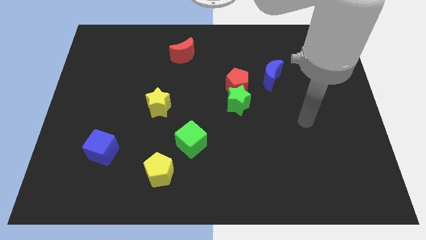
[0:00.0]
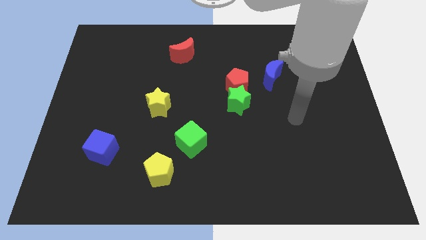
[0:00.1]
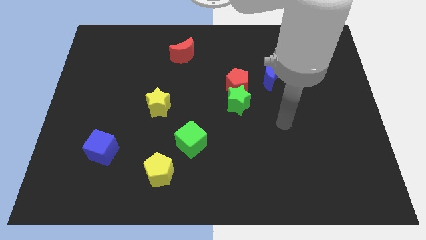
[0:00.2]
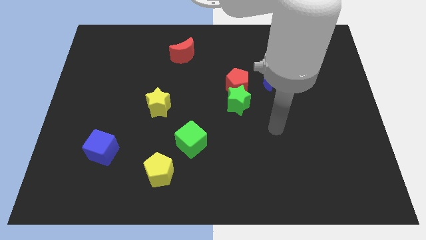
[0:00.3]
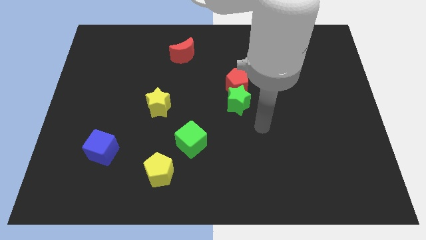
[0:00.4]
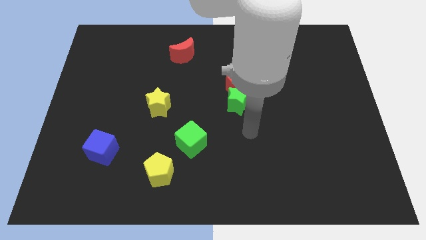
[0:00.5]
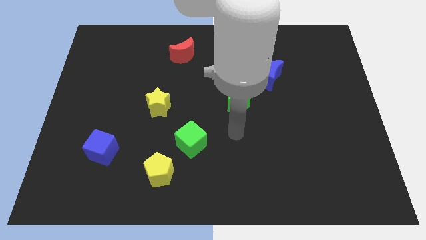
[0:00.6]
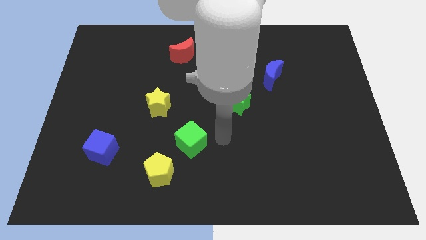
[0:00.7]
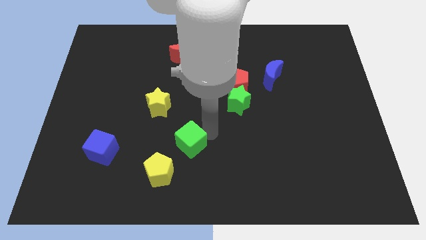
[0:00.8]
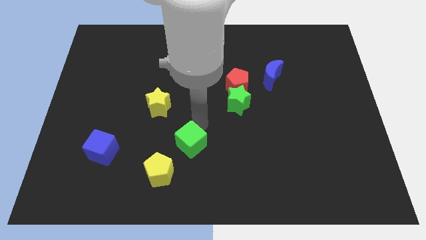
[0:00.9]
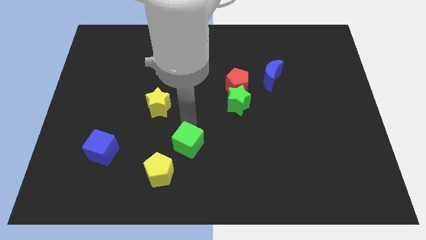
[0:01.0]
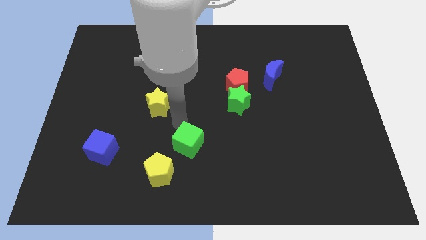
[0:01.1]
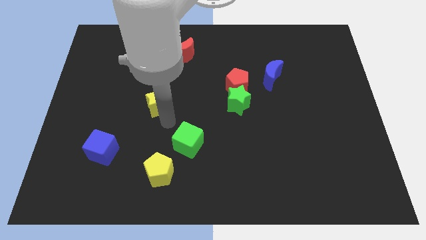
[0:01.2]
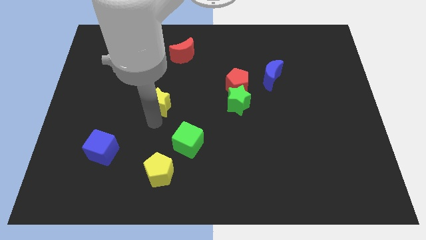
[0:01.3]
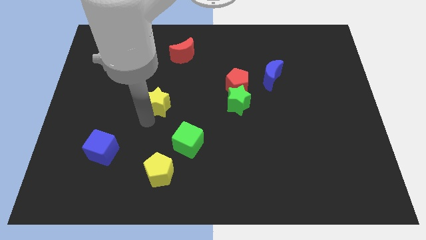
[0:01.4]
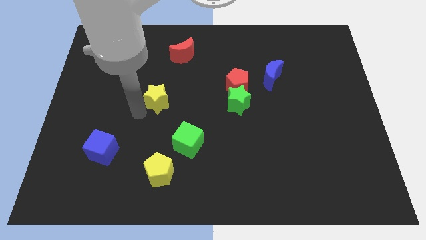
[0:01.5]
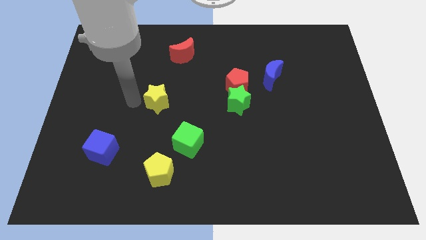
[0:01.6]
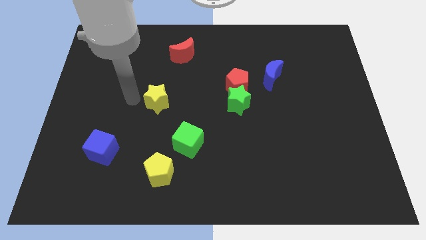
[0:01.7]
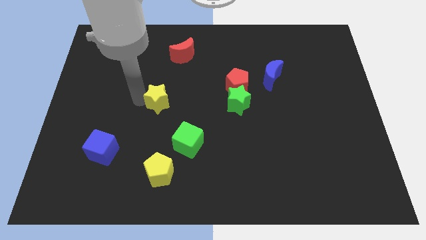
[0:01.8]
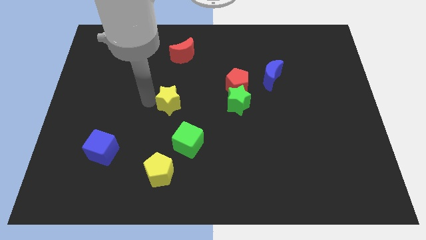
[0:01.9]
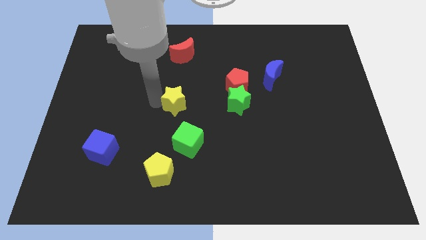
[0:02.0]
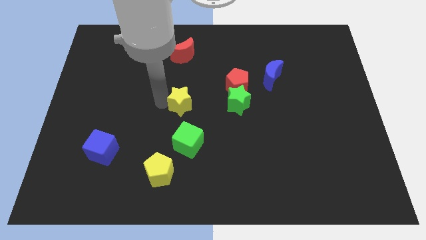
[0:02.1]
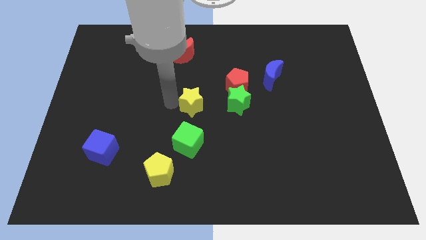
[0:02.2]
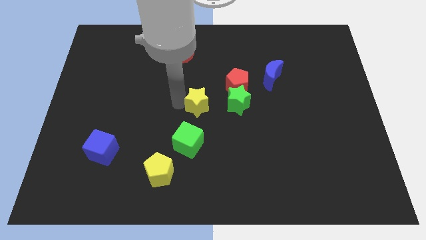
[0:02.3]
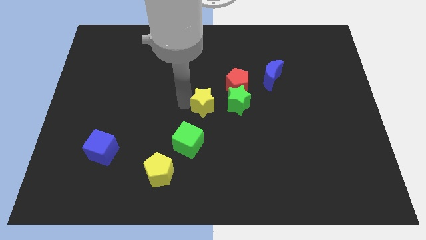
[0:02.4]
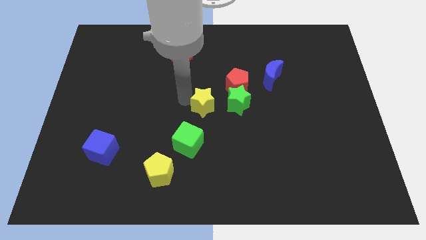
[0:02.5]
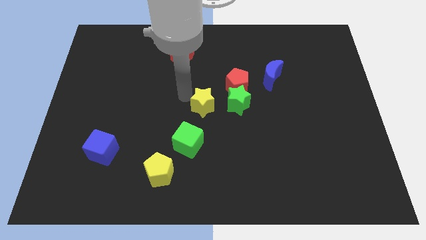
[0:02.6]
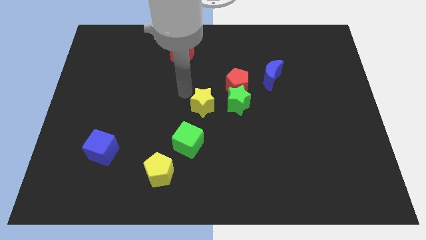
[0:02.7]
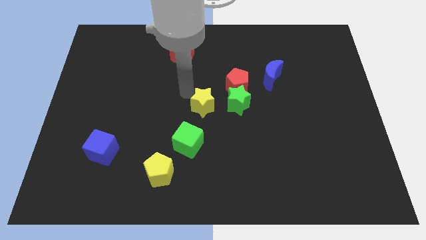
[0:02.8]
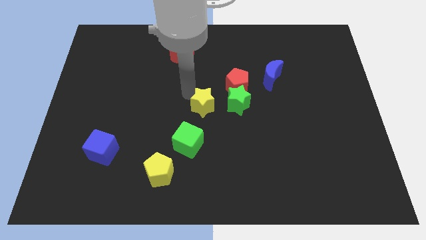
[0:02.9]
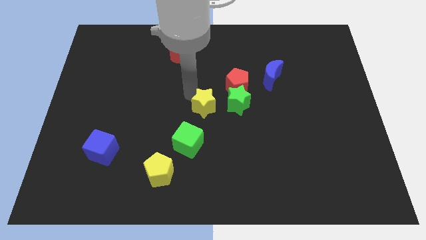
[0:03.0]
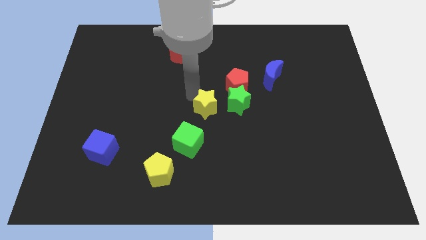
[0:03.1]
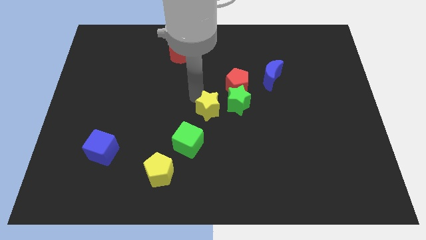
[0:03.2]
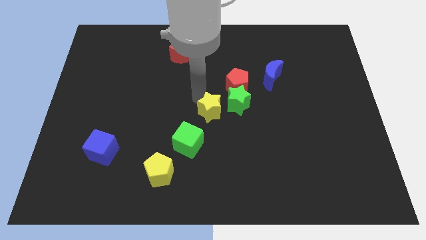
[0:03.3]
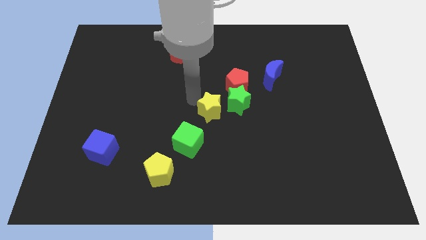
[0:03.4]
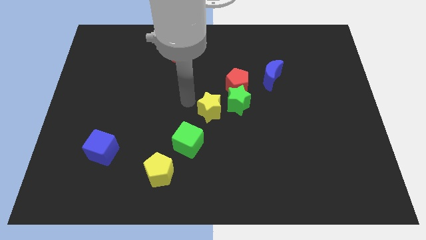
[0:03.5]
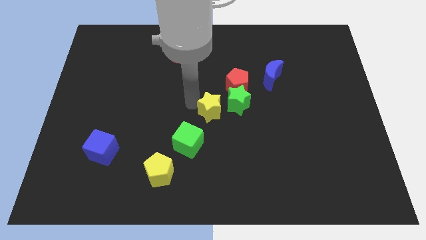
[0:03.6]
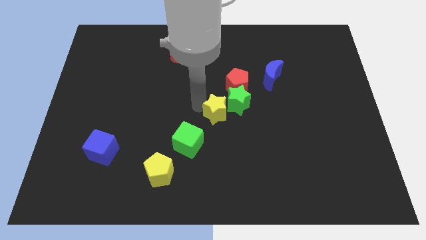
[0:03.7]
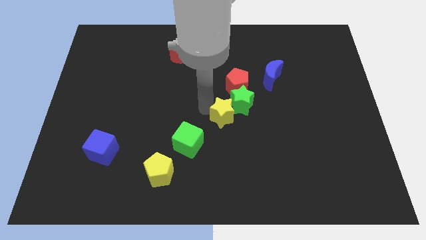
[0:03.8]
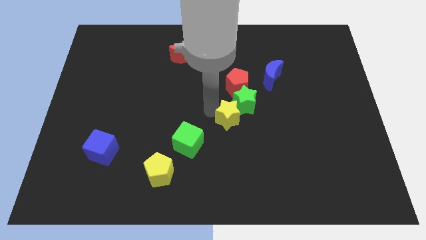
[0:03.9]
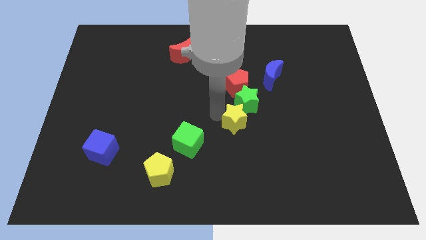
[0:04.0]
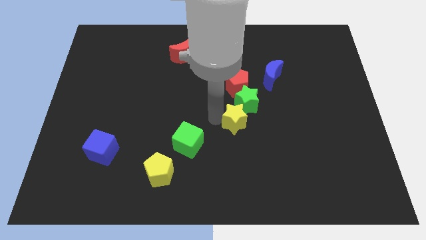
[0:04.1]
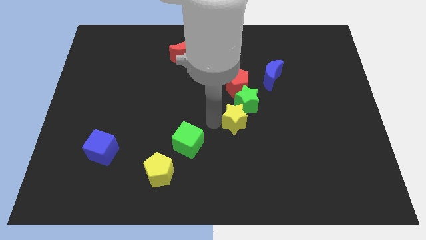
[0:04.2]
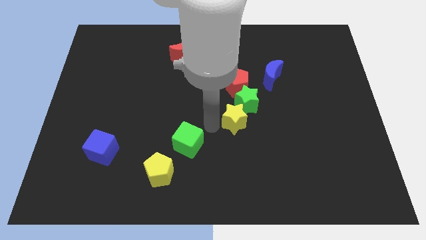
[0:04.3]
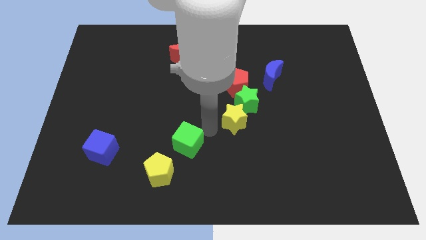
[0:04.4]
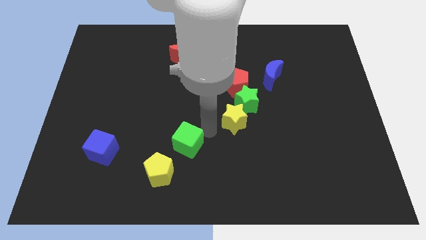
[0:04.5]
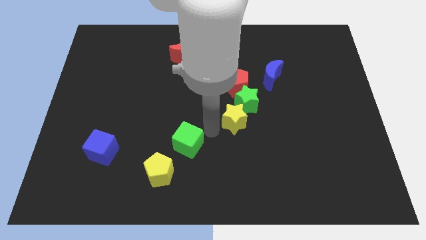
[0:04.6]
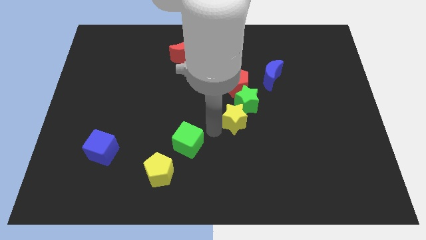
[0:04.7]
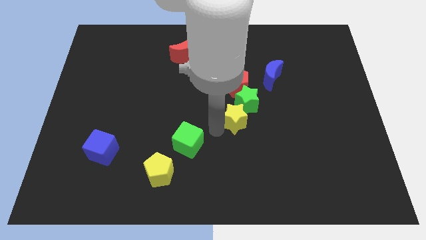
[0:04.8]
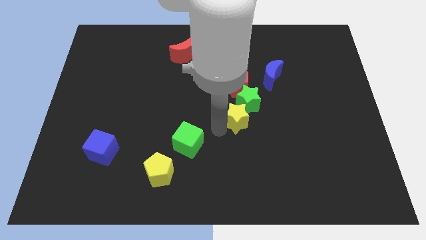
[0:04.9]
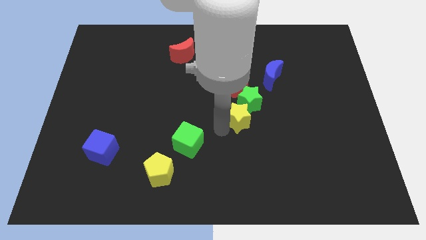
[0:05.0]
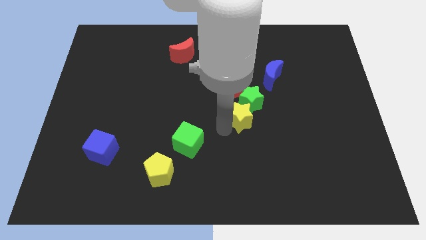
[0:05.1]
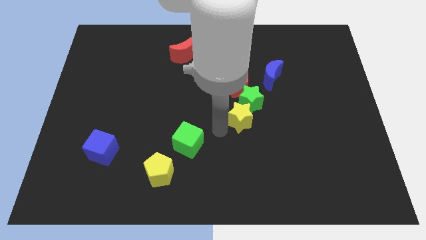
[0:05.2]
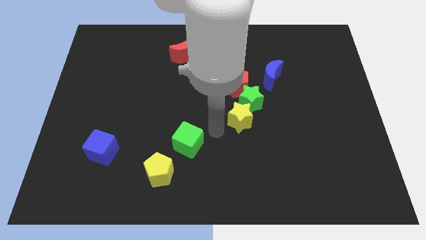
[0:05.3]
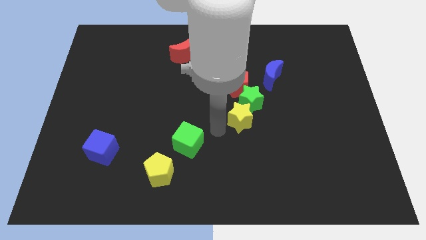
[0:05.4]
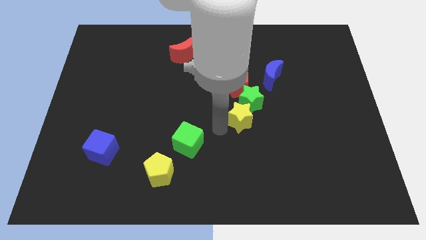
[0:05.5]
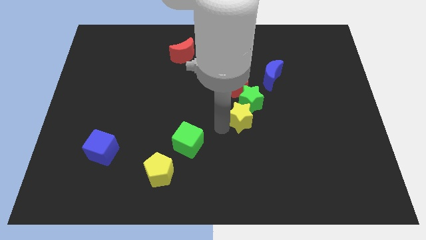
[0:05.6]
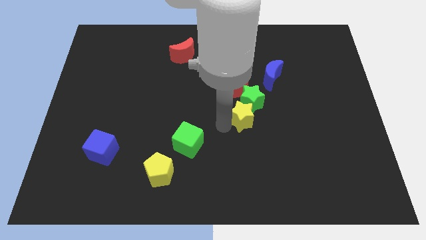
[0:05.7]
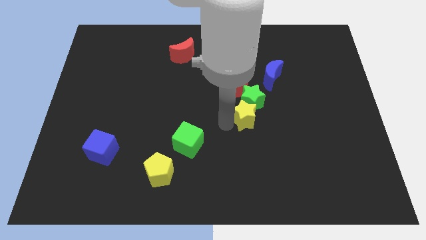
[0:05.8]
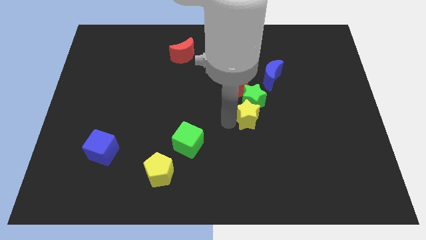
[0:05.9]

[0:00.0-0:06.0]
slide the yellow star to the right

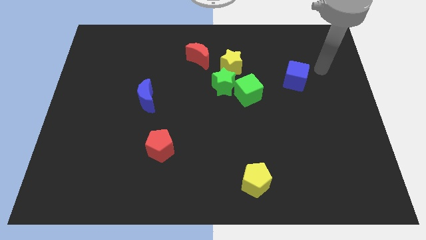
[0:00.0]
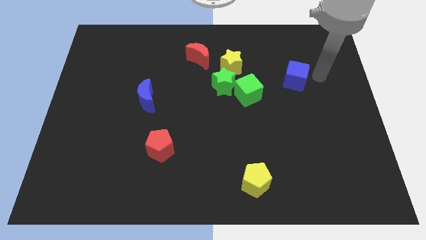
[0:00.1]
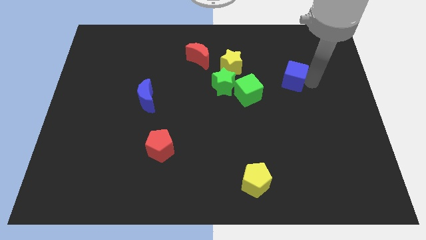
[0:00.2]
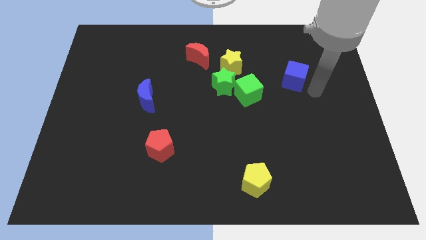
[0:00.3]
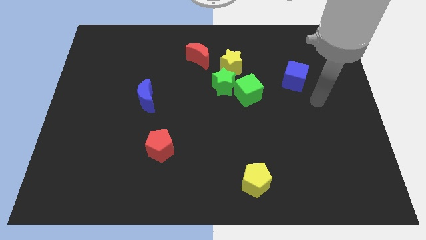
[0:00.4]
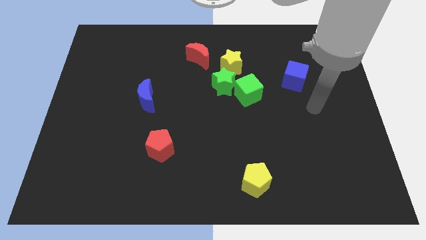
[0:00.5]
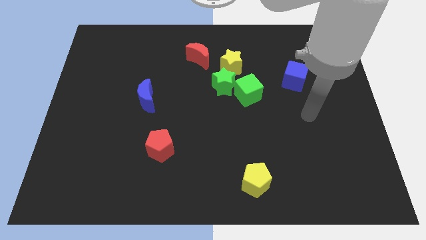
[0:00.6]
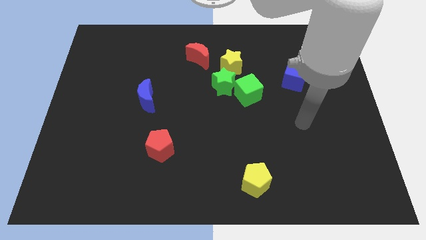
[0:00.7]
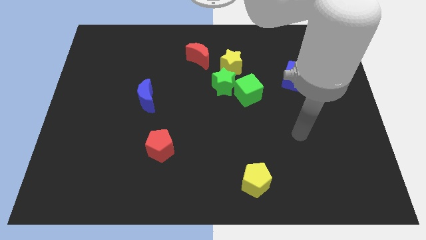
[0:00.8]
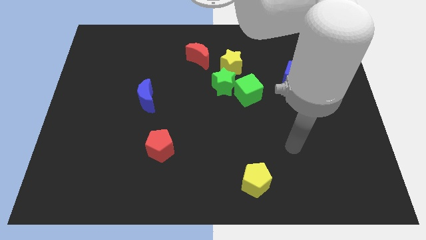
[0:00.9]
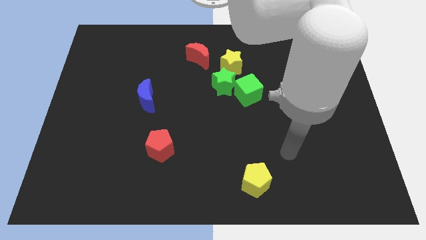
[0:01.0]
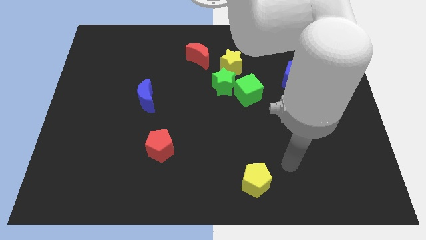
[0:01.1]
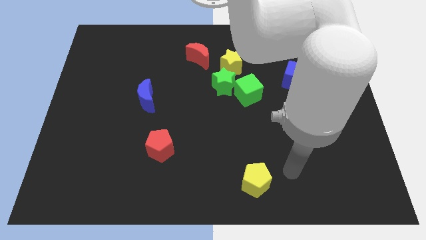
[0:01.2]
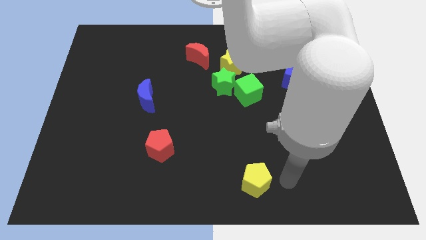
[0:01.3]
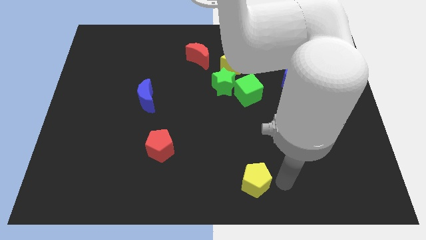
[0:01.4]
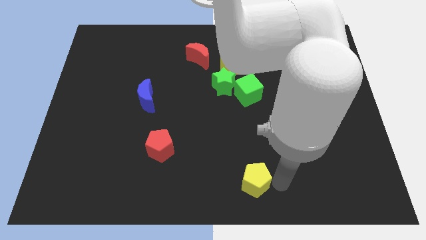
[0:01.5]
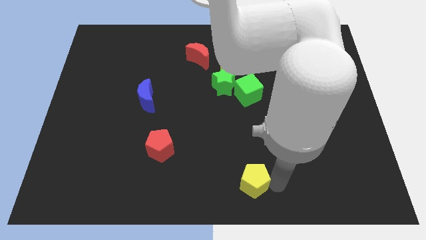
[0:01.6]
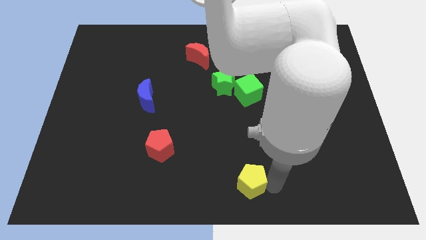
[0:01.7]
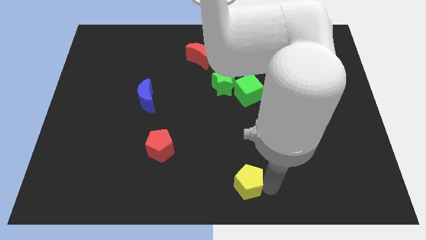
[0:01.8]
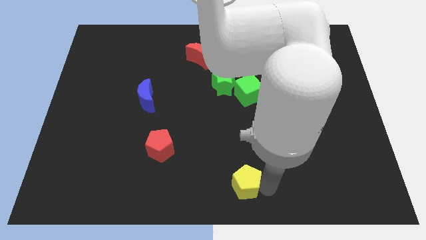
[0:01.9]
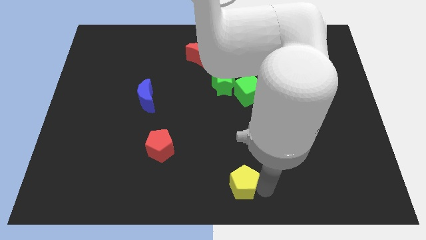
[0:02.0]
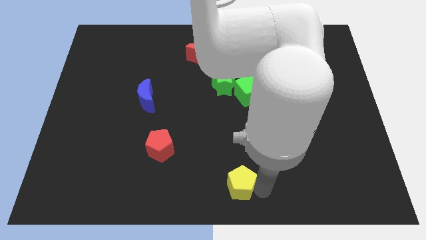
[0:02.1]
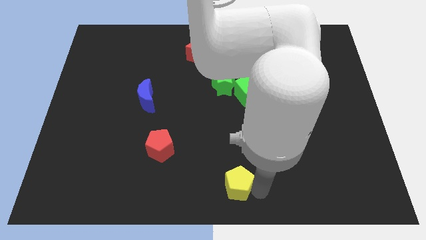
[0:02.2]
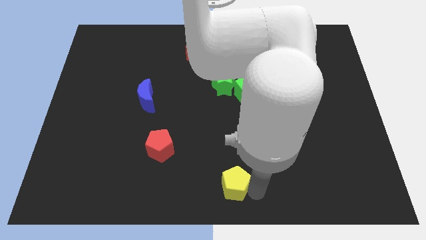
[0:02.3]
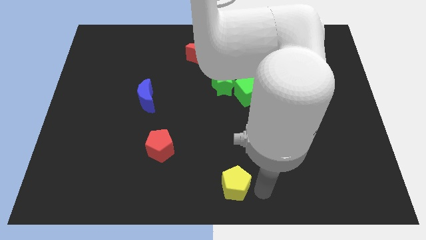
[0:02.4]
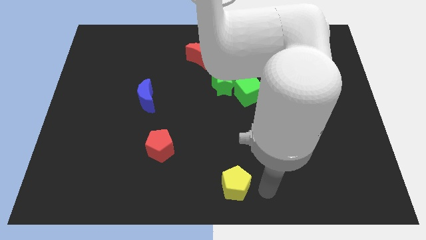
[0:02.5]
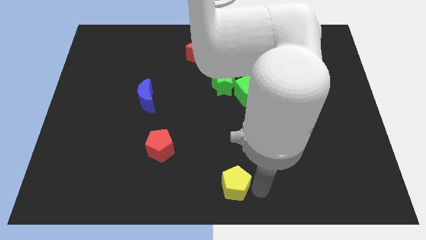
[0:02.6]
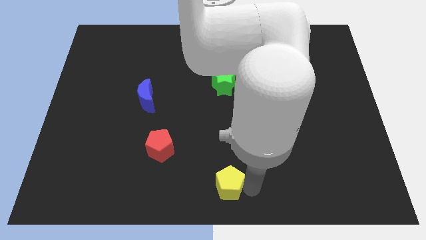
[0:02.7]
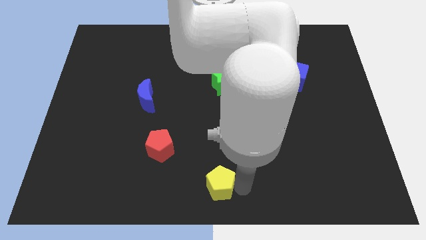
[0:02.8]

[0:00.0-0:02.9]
move the yellow pentagon a bit left
